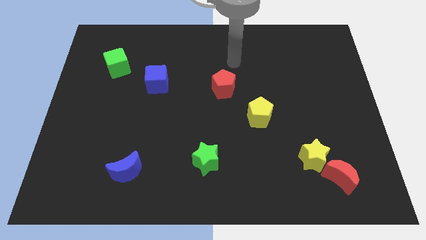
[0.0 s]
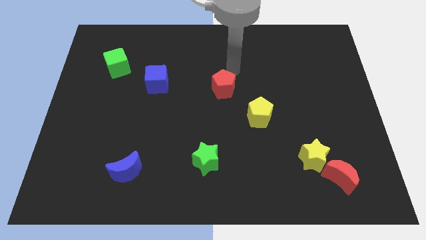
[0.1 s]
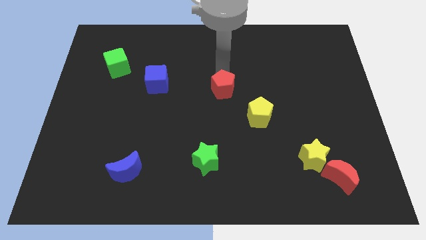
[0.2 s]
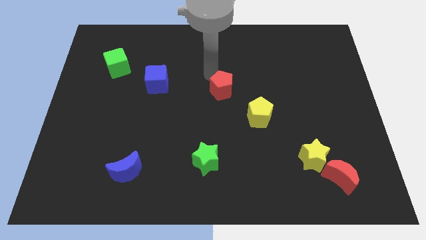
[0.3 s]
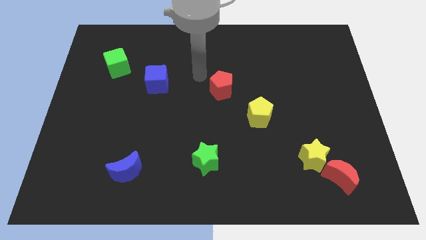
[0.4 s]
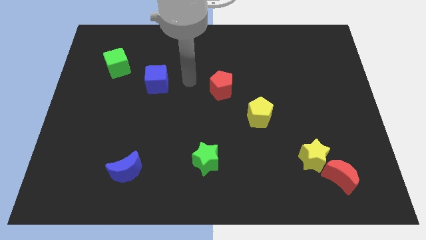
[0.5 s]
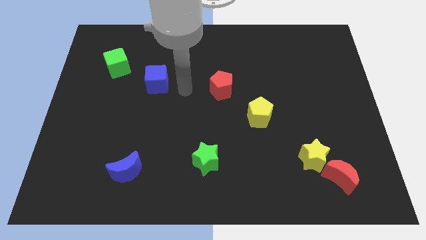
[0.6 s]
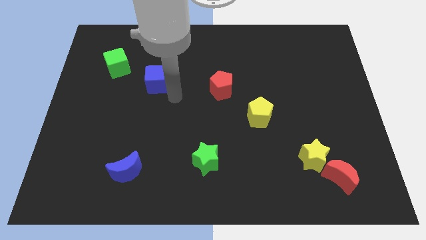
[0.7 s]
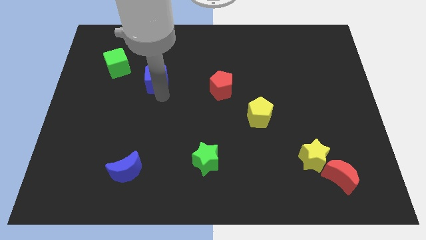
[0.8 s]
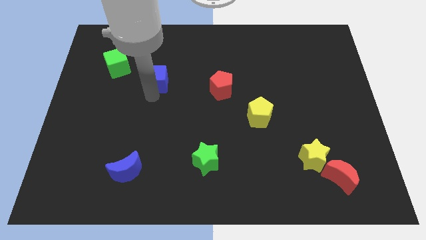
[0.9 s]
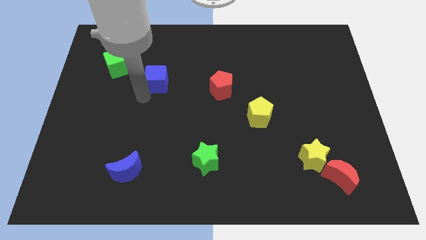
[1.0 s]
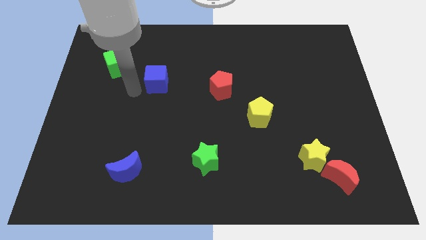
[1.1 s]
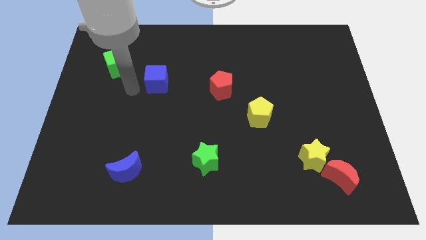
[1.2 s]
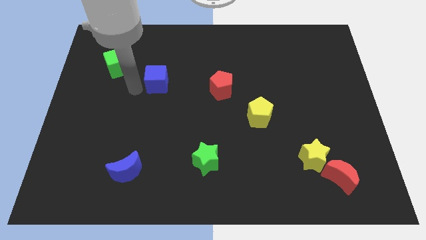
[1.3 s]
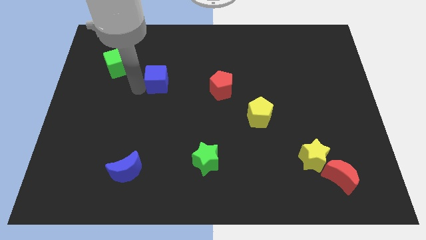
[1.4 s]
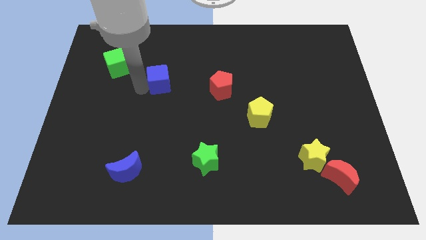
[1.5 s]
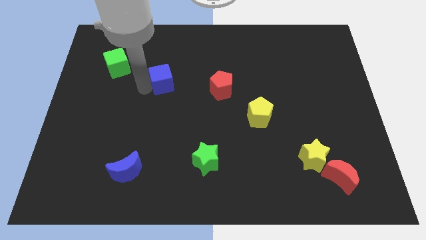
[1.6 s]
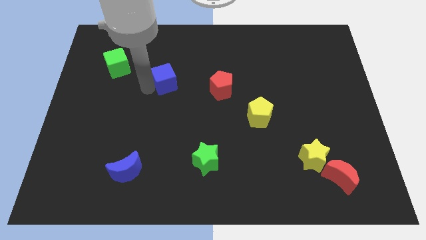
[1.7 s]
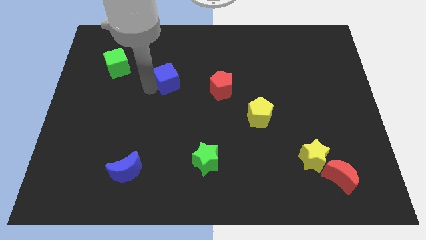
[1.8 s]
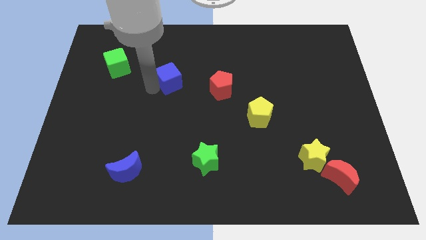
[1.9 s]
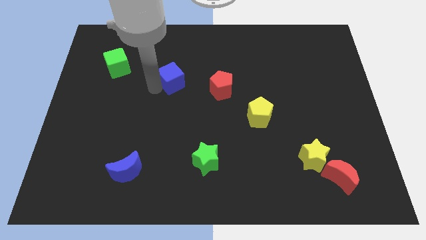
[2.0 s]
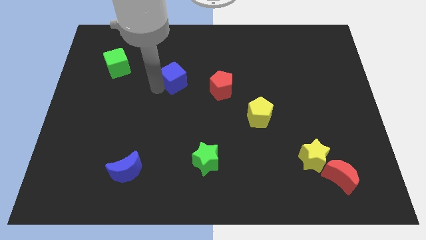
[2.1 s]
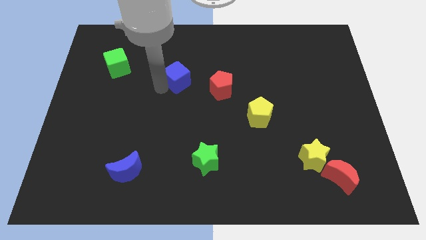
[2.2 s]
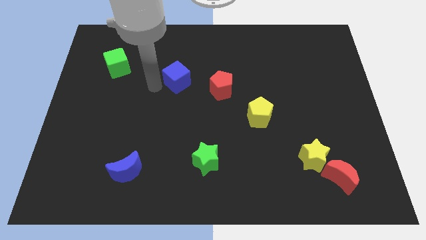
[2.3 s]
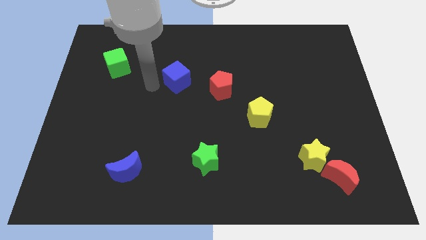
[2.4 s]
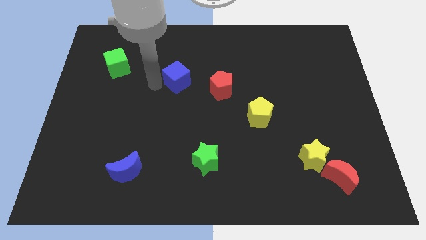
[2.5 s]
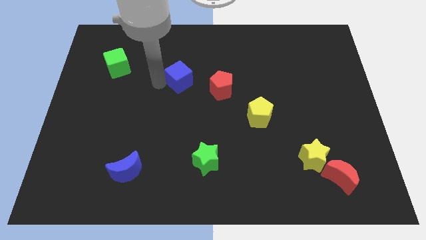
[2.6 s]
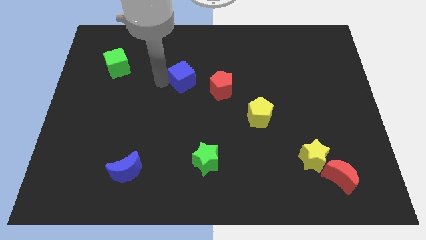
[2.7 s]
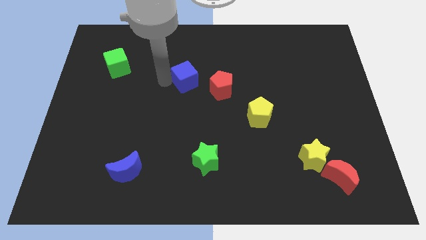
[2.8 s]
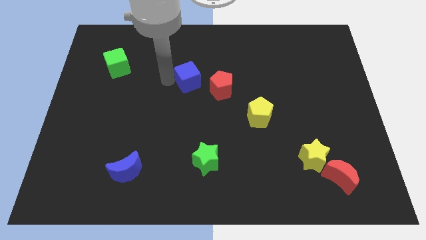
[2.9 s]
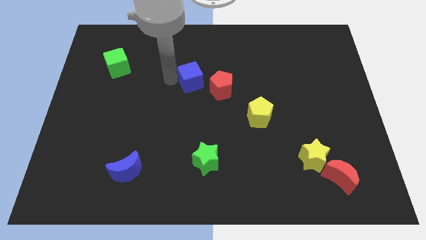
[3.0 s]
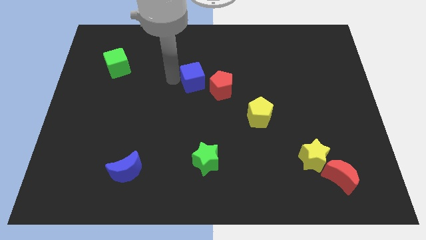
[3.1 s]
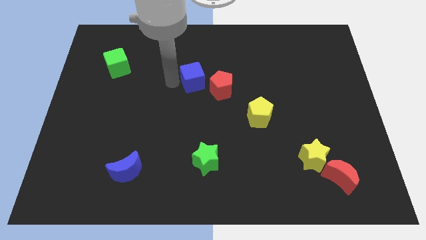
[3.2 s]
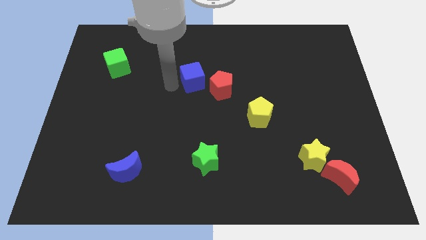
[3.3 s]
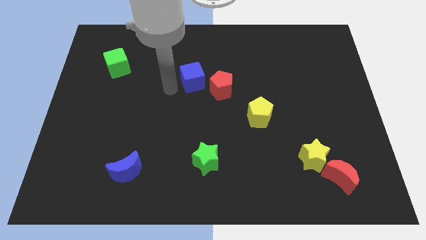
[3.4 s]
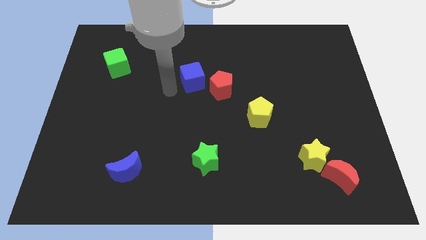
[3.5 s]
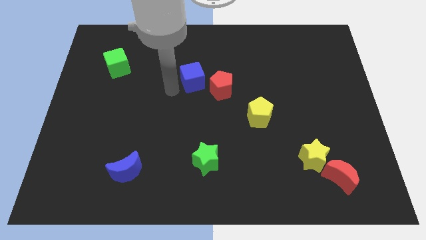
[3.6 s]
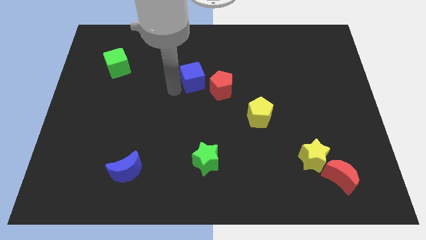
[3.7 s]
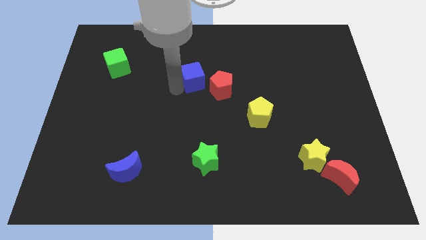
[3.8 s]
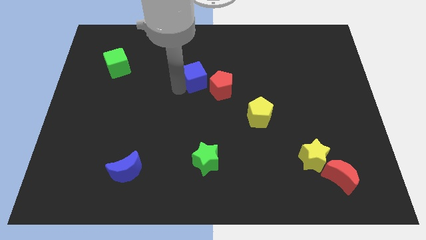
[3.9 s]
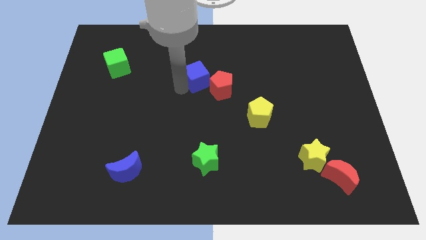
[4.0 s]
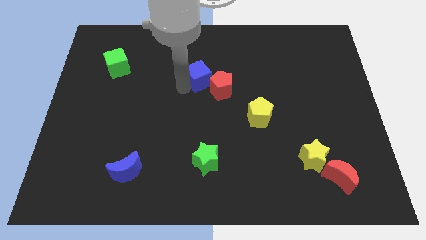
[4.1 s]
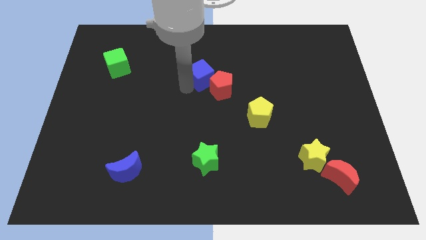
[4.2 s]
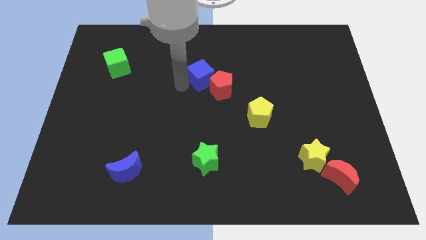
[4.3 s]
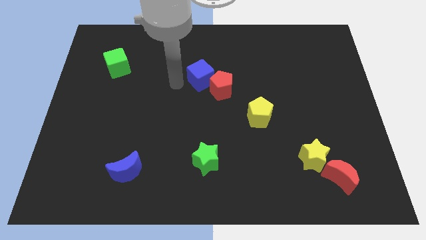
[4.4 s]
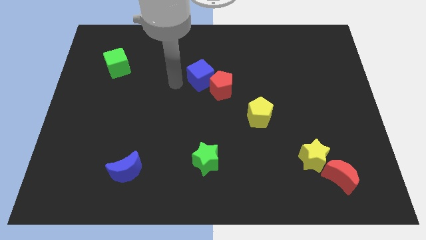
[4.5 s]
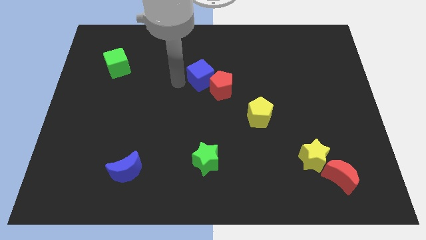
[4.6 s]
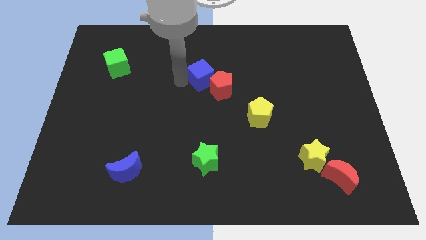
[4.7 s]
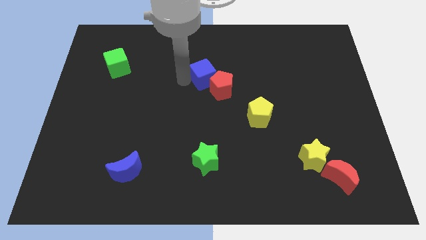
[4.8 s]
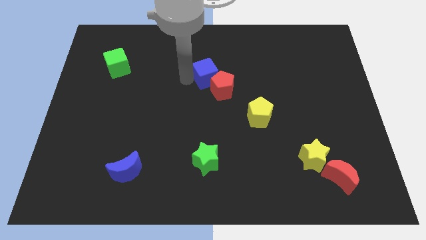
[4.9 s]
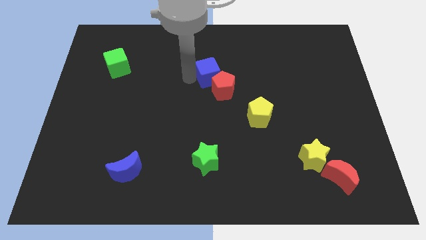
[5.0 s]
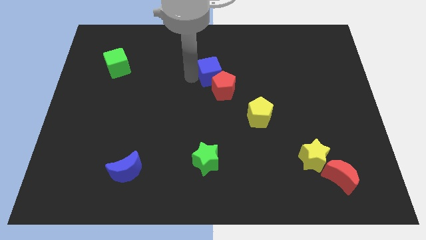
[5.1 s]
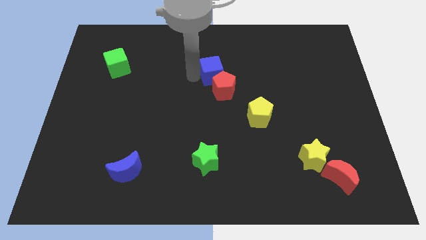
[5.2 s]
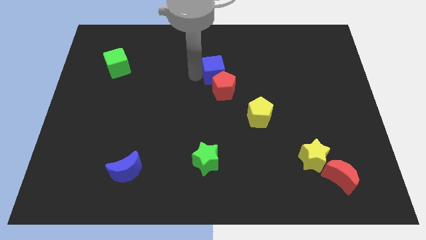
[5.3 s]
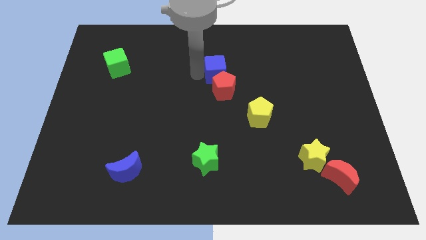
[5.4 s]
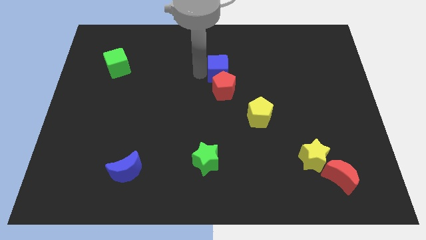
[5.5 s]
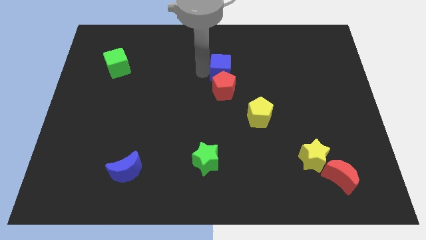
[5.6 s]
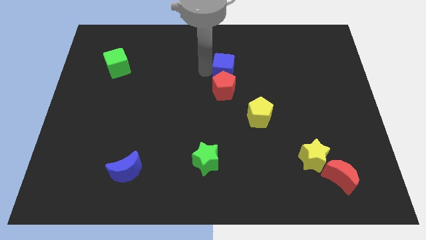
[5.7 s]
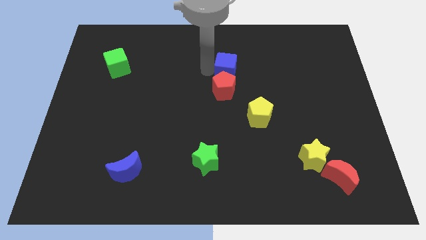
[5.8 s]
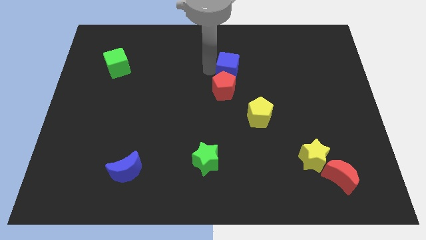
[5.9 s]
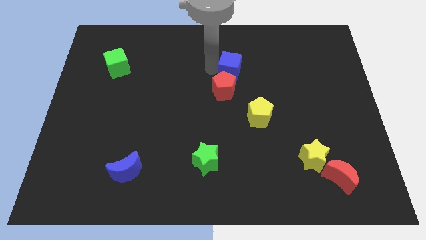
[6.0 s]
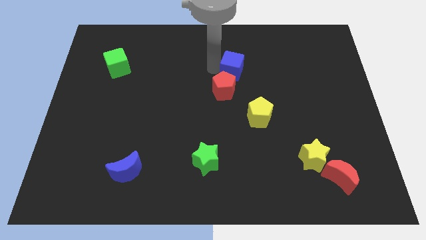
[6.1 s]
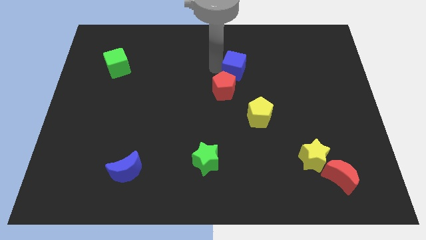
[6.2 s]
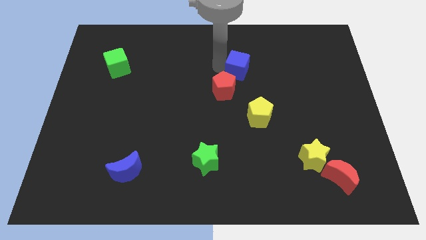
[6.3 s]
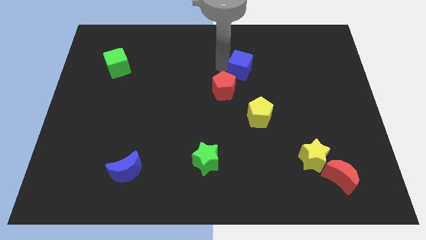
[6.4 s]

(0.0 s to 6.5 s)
push the blue cube right

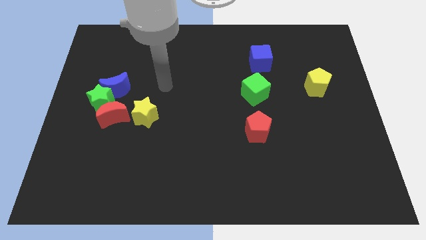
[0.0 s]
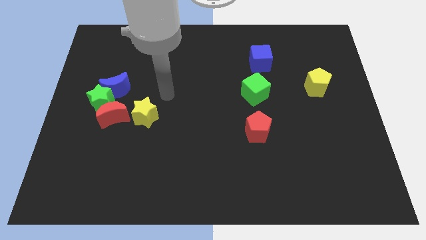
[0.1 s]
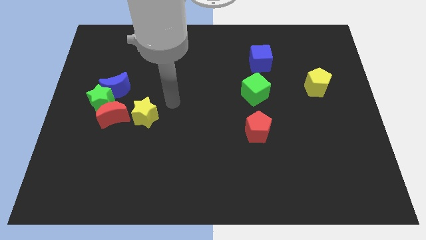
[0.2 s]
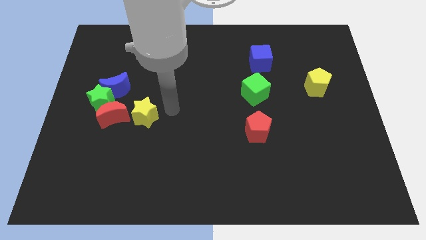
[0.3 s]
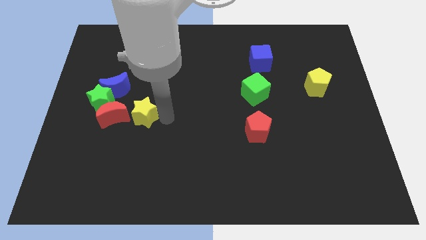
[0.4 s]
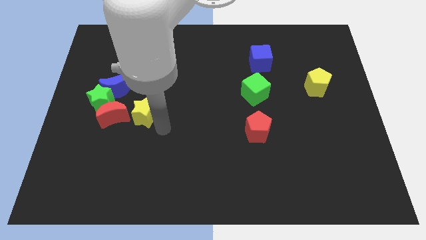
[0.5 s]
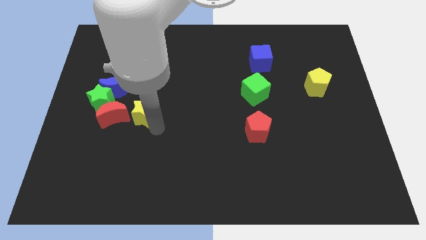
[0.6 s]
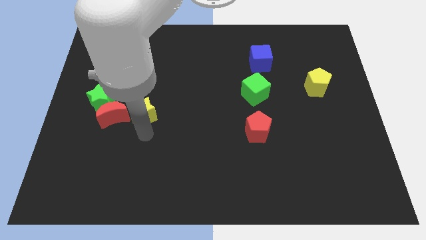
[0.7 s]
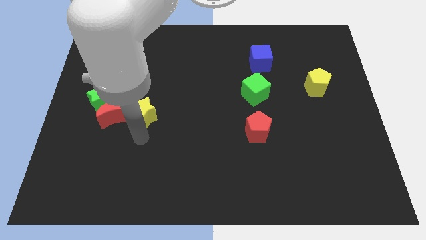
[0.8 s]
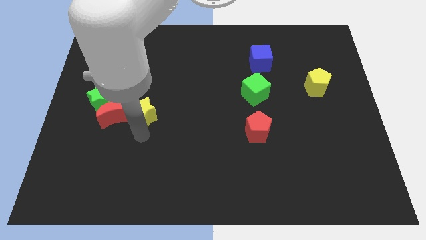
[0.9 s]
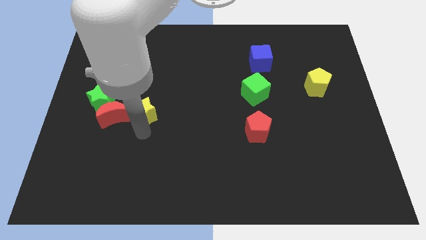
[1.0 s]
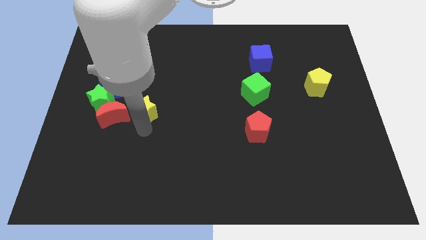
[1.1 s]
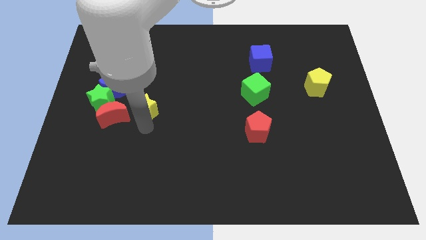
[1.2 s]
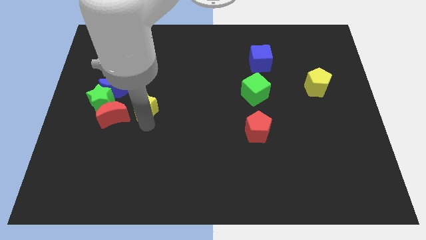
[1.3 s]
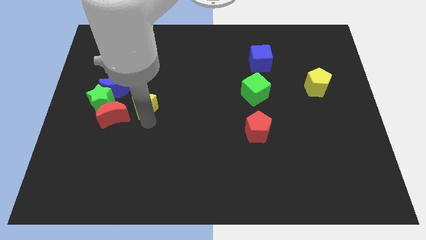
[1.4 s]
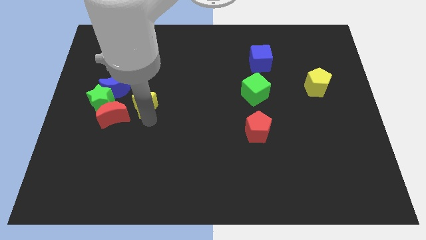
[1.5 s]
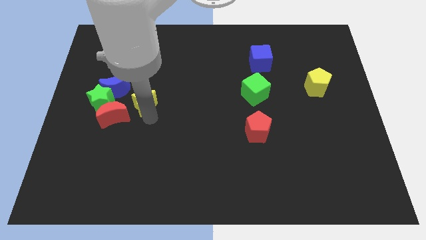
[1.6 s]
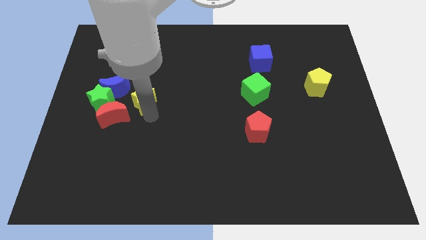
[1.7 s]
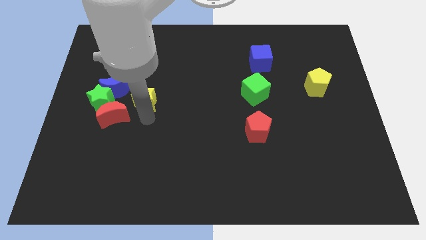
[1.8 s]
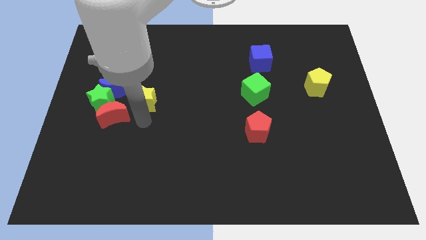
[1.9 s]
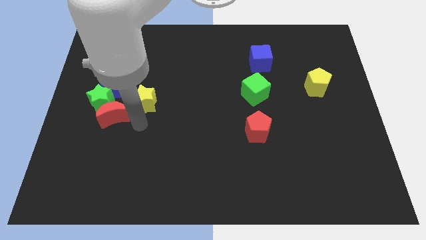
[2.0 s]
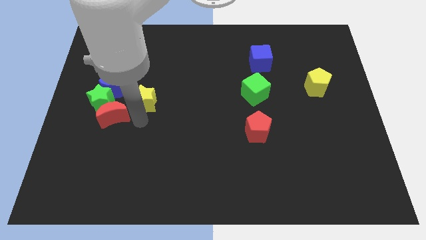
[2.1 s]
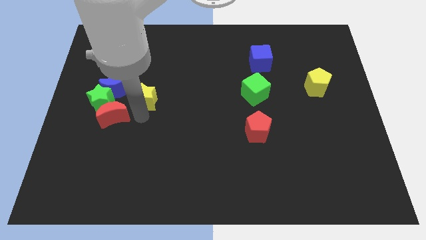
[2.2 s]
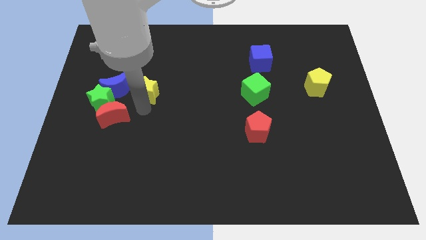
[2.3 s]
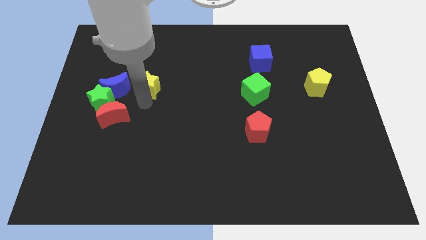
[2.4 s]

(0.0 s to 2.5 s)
move the yellow star upwards a little bit
